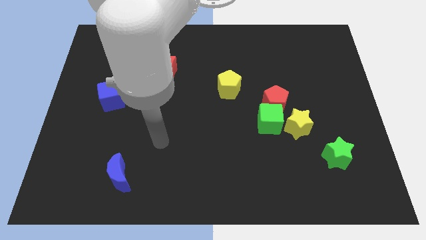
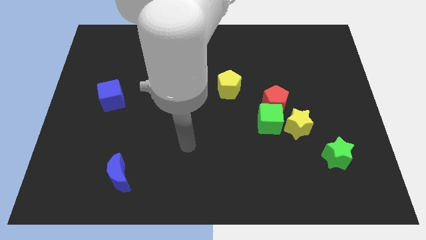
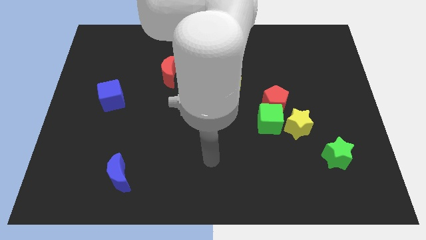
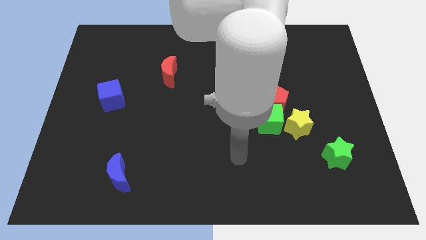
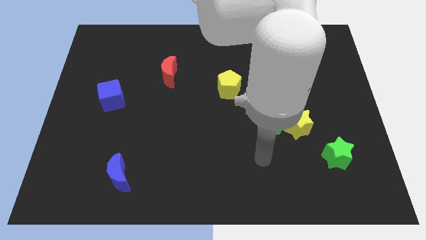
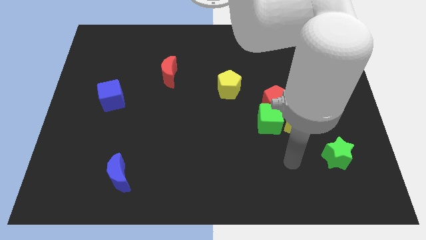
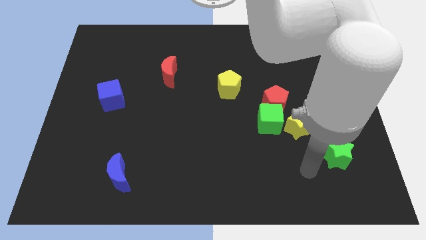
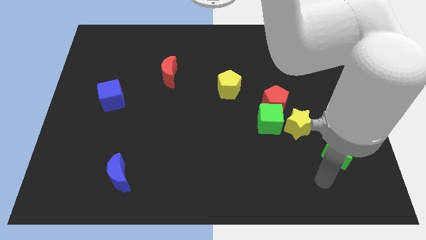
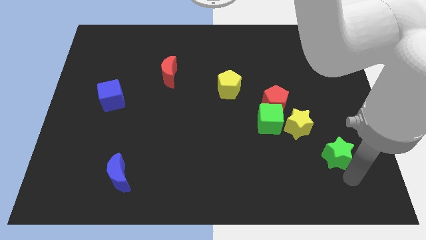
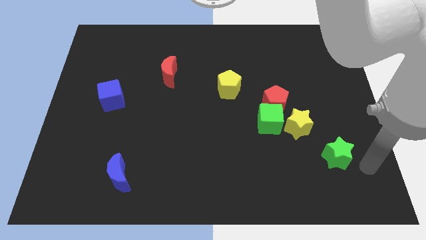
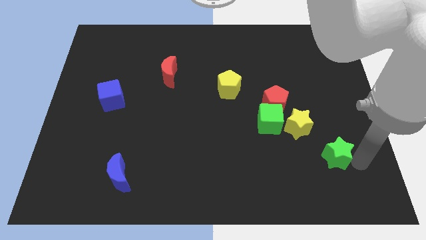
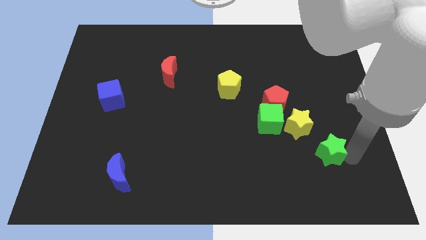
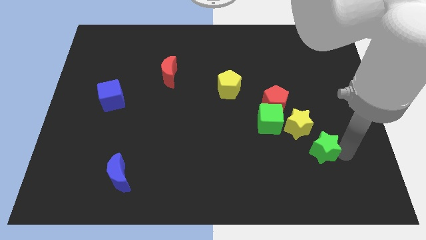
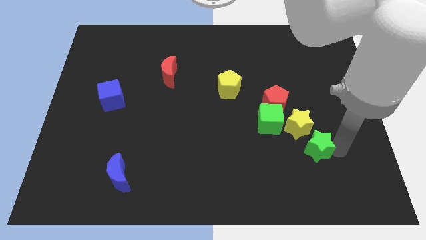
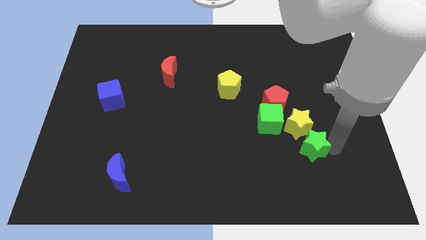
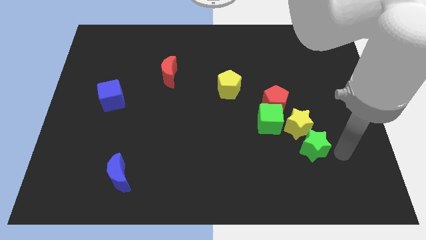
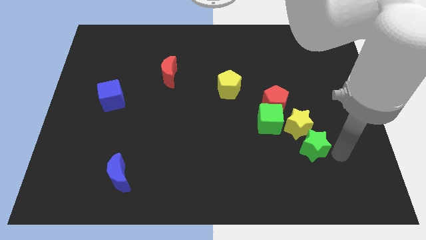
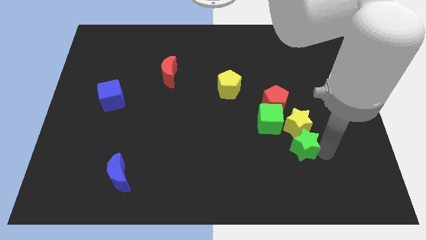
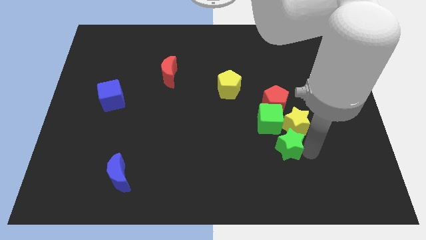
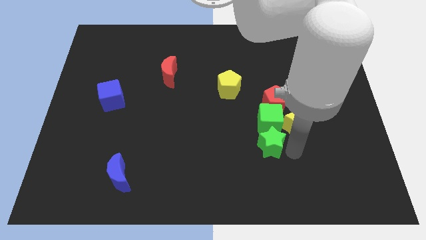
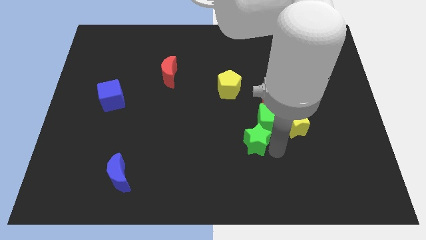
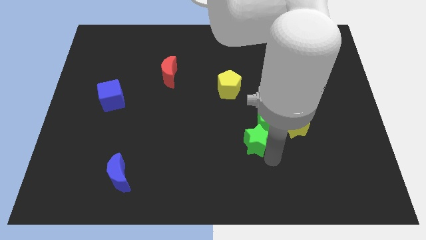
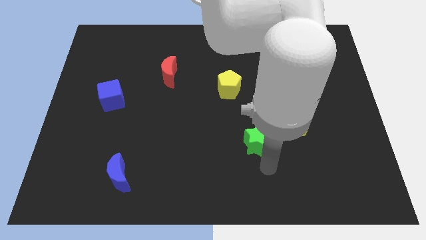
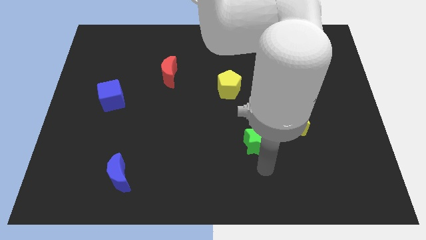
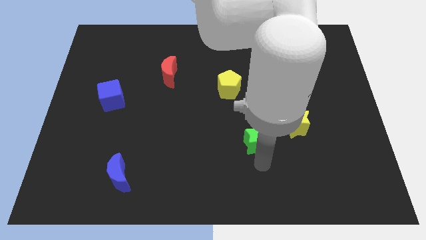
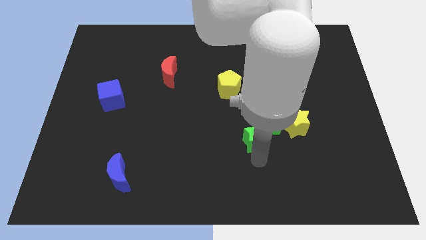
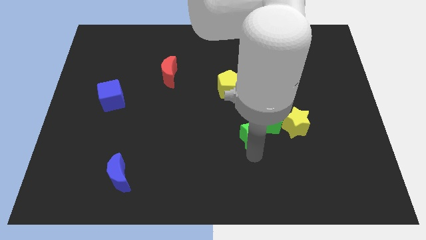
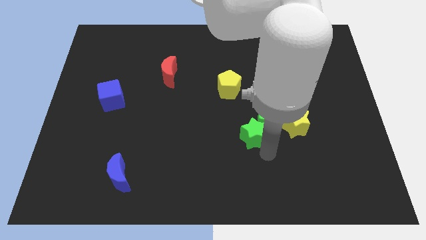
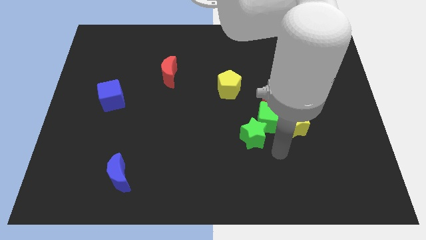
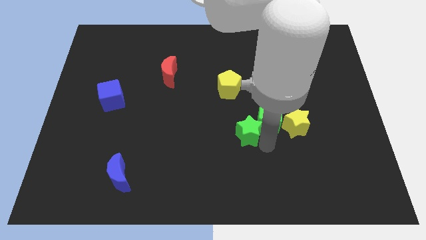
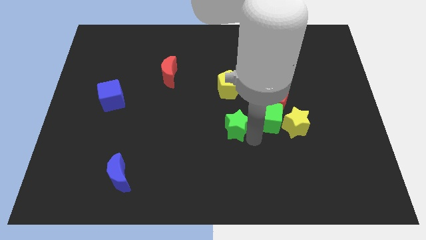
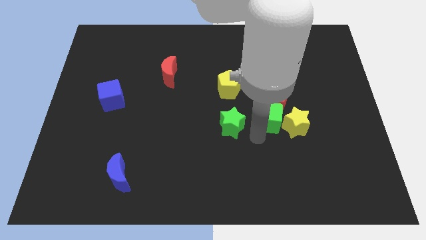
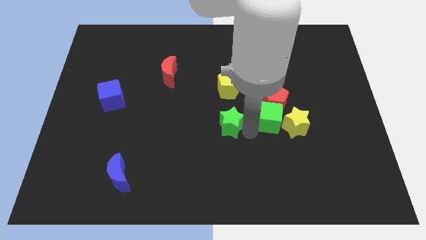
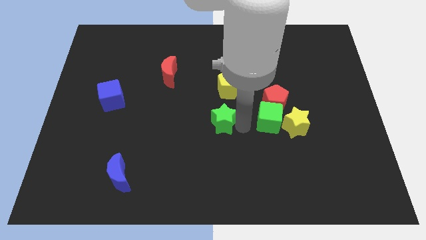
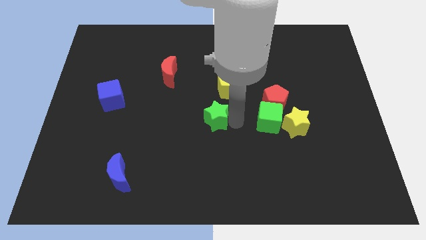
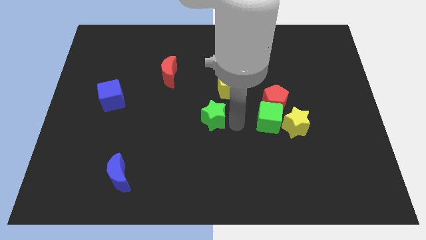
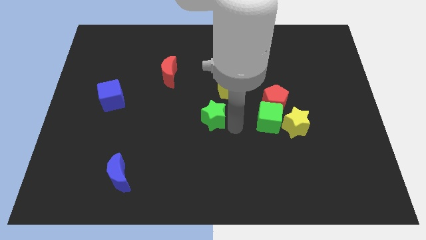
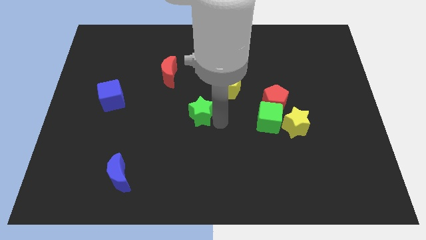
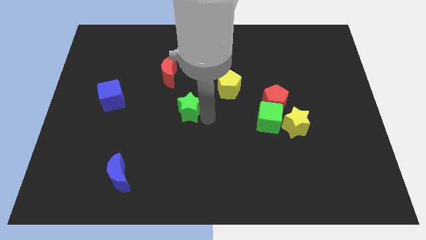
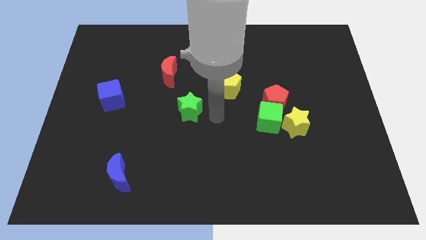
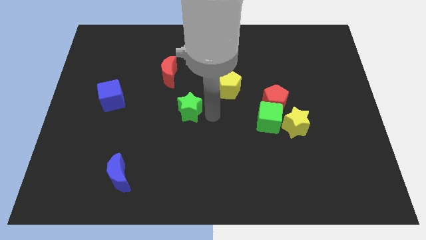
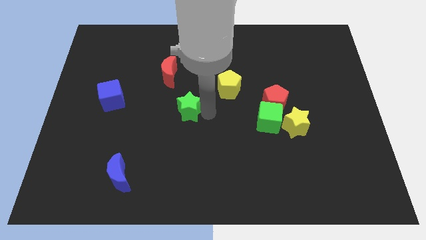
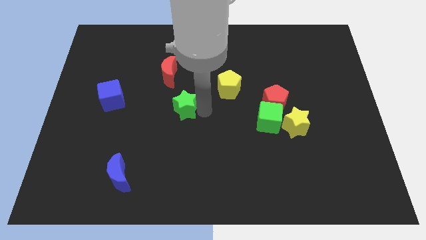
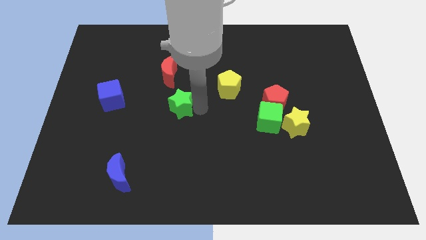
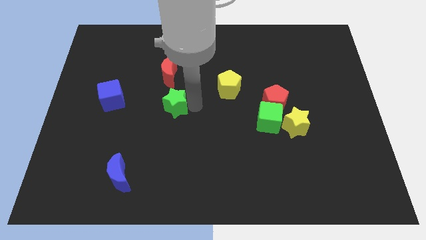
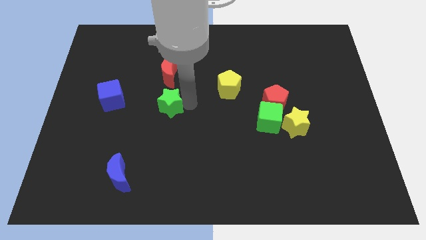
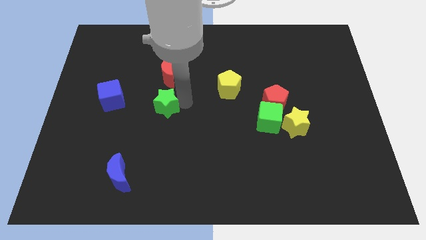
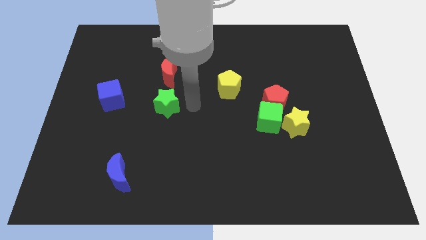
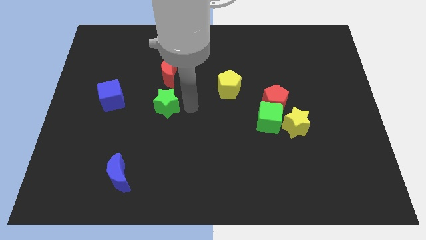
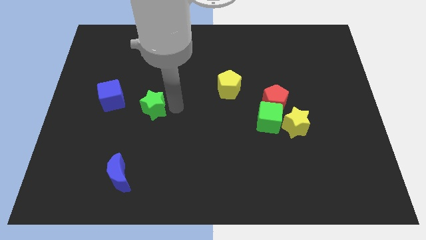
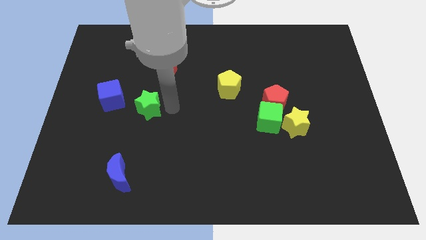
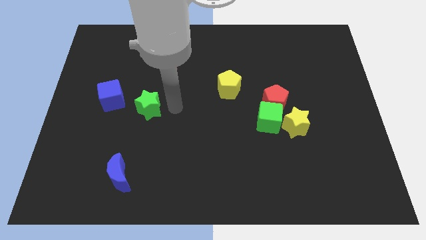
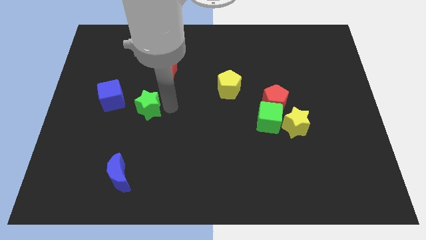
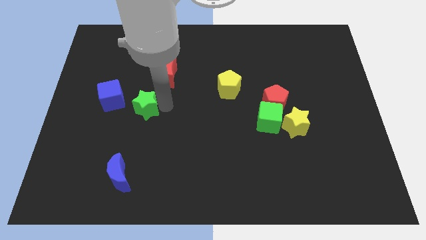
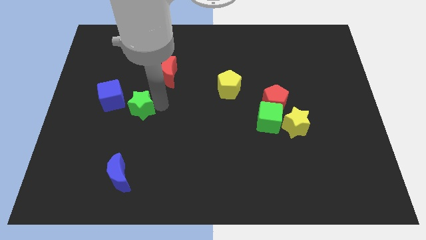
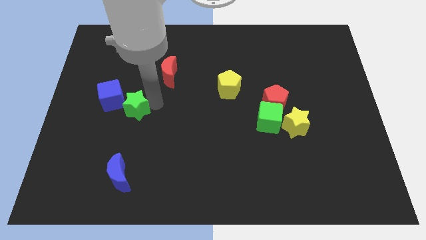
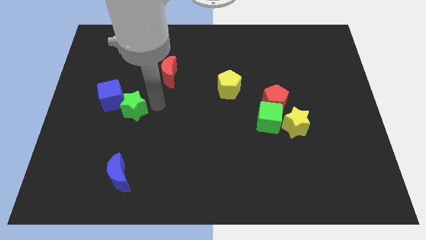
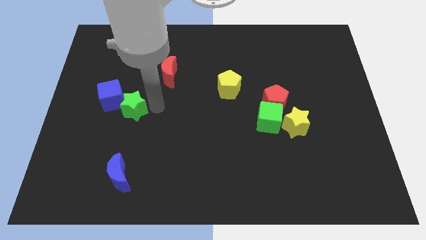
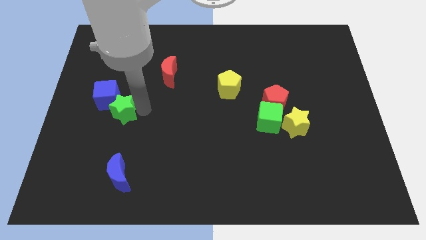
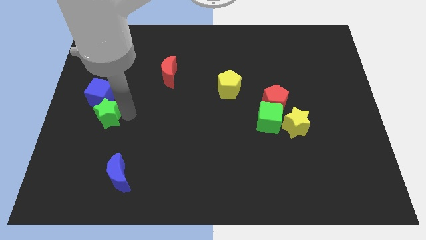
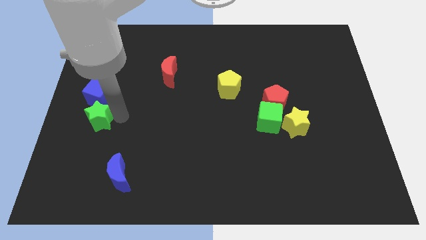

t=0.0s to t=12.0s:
put the green star to the left side of the board
